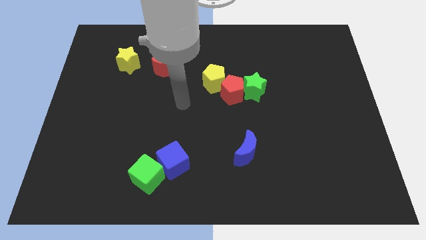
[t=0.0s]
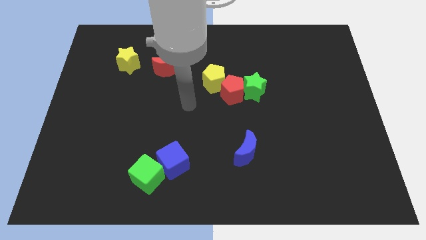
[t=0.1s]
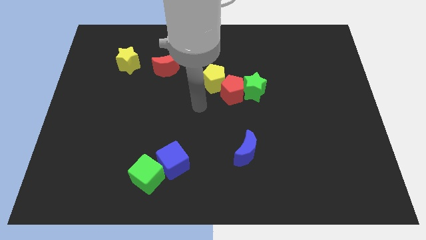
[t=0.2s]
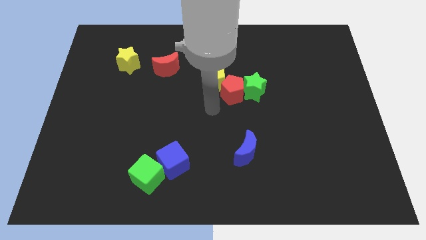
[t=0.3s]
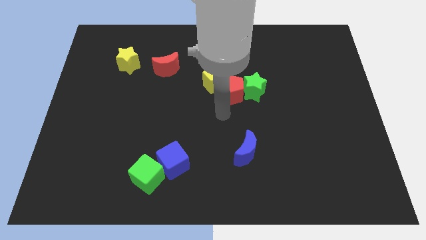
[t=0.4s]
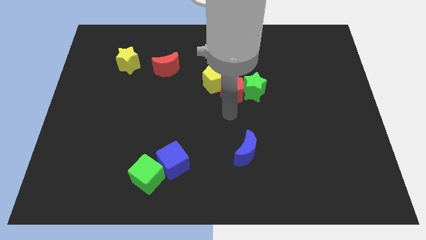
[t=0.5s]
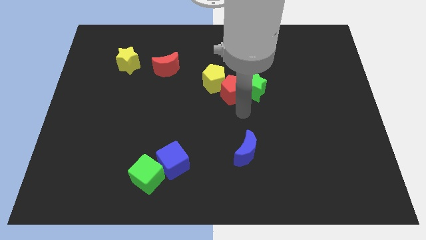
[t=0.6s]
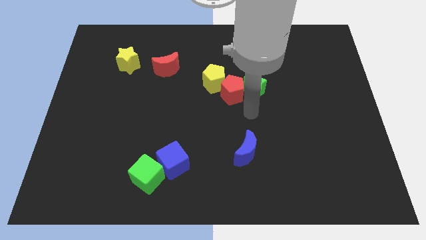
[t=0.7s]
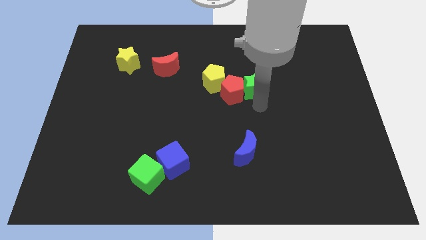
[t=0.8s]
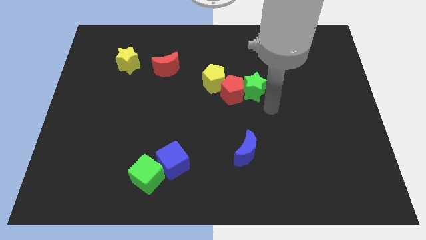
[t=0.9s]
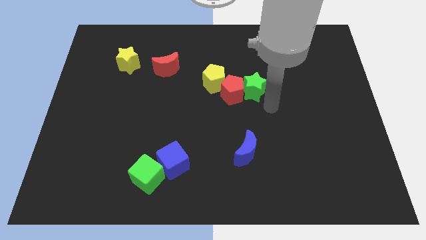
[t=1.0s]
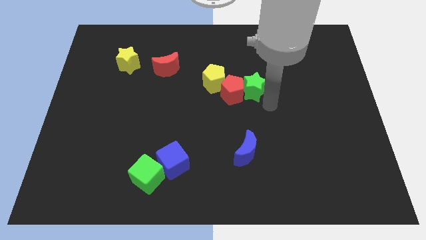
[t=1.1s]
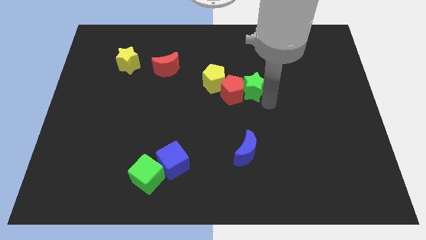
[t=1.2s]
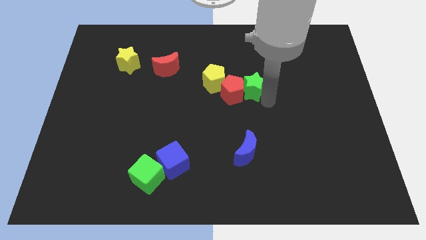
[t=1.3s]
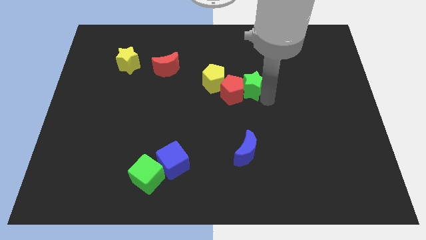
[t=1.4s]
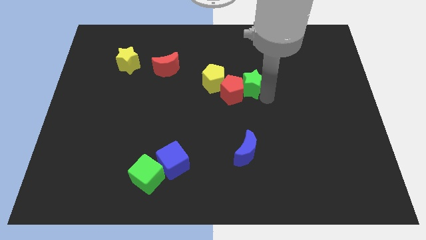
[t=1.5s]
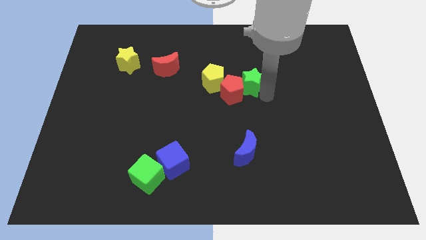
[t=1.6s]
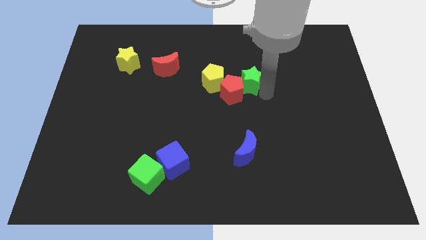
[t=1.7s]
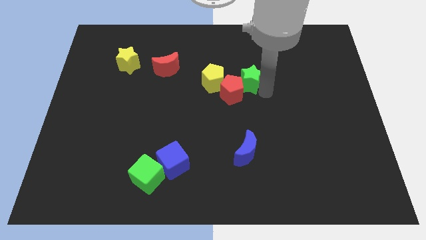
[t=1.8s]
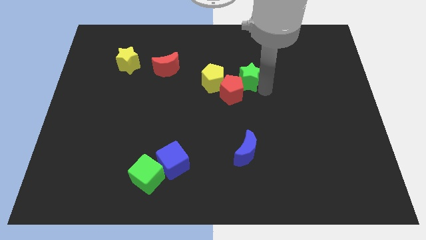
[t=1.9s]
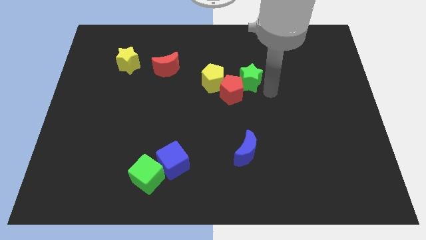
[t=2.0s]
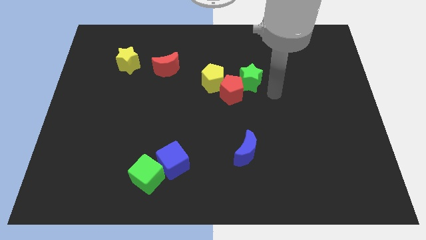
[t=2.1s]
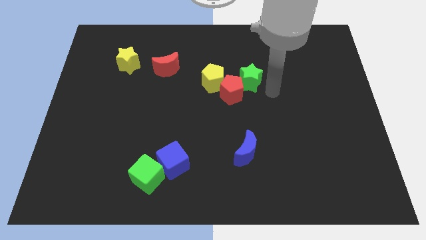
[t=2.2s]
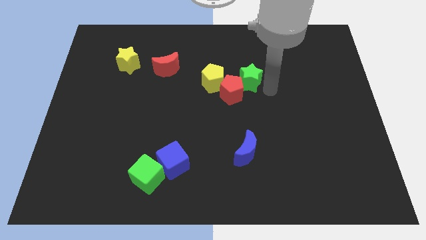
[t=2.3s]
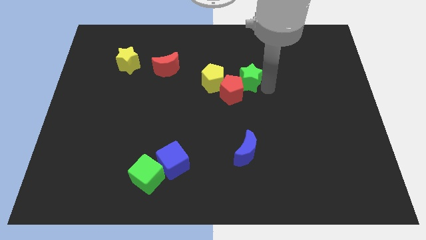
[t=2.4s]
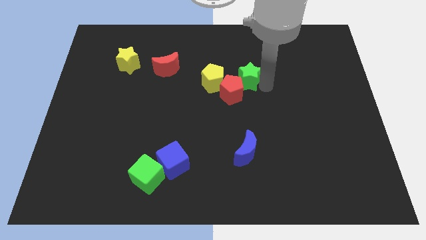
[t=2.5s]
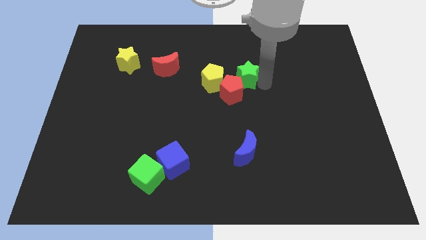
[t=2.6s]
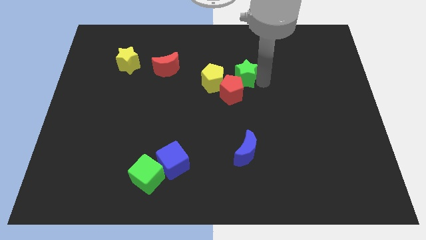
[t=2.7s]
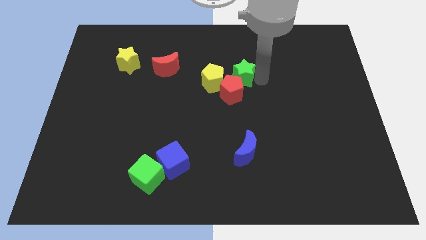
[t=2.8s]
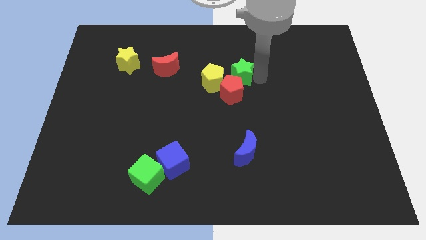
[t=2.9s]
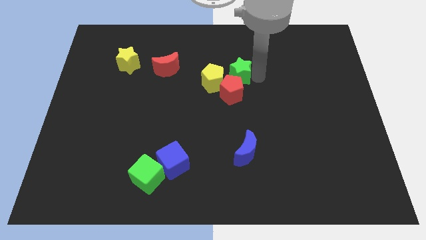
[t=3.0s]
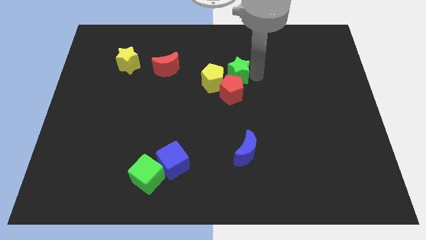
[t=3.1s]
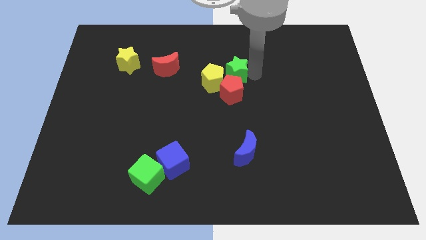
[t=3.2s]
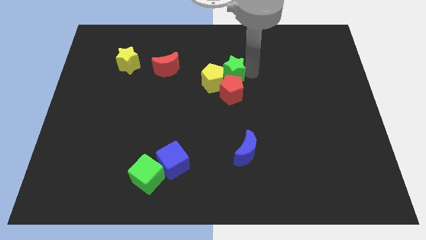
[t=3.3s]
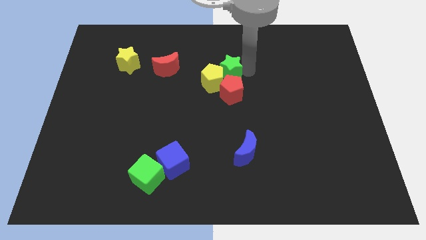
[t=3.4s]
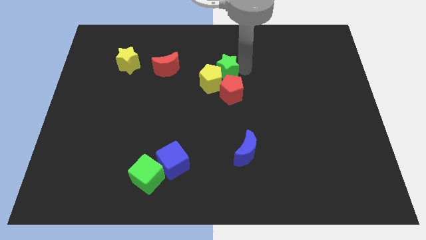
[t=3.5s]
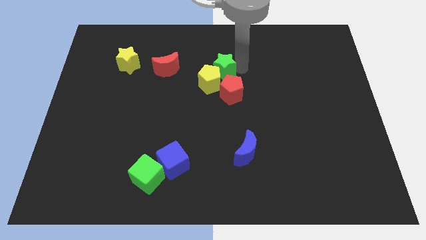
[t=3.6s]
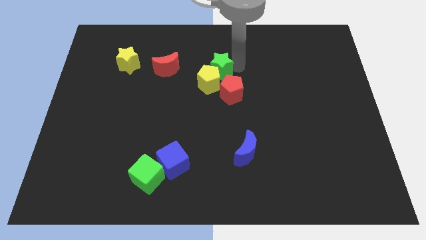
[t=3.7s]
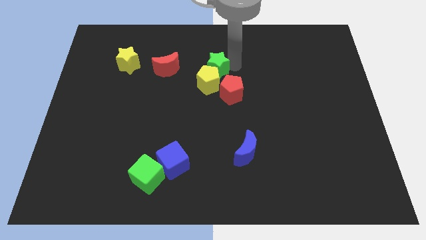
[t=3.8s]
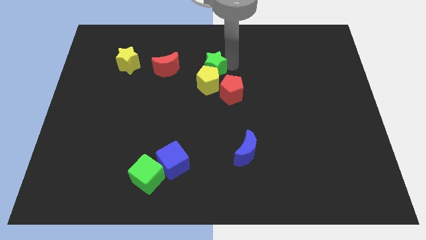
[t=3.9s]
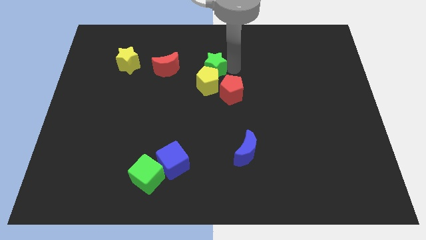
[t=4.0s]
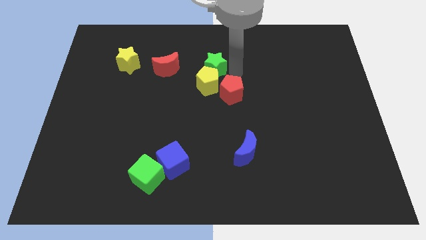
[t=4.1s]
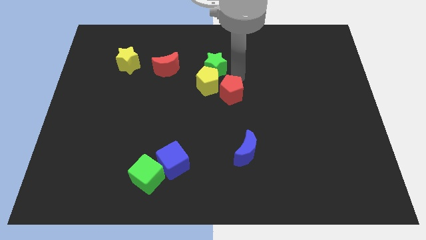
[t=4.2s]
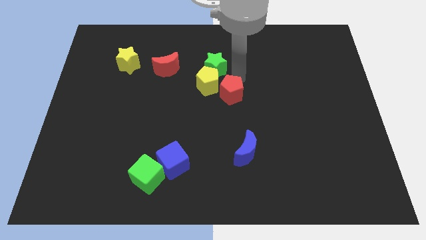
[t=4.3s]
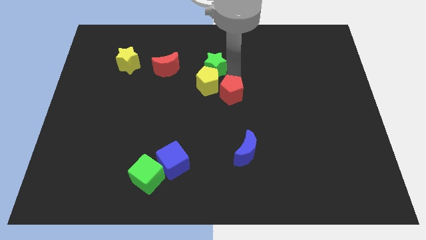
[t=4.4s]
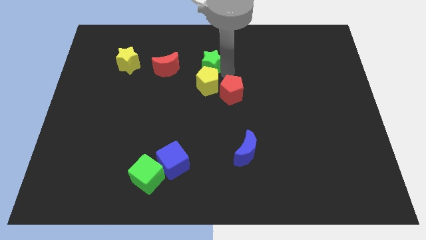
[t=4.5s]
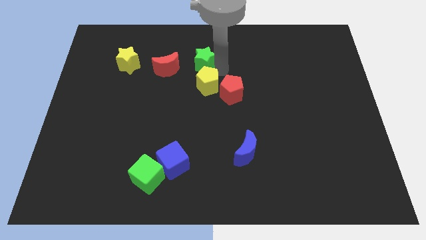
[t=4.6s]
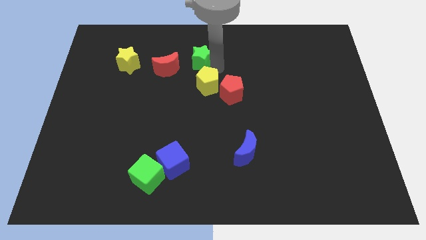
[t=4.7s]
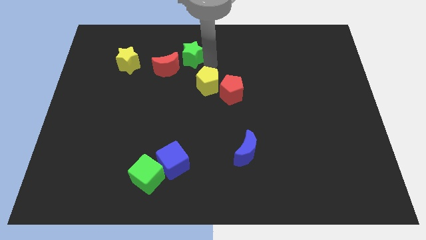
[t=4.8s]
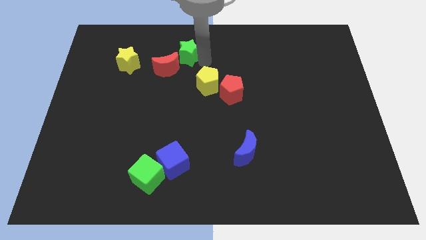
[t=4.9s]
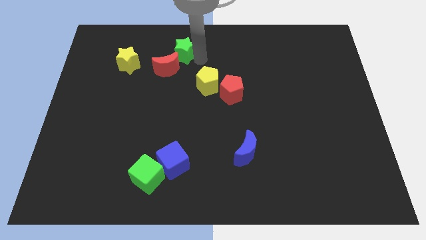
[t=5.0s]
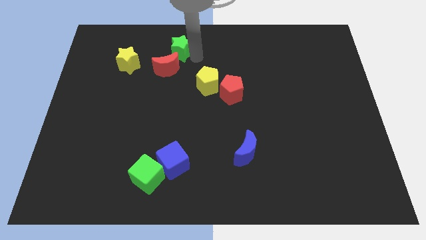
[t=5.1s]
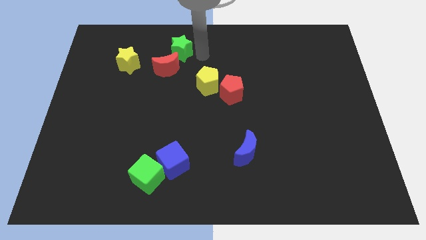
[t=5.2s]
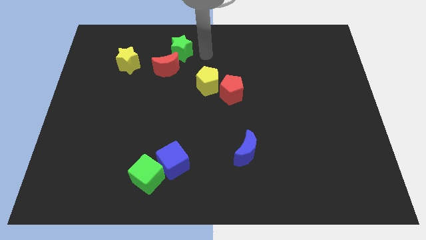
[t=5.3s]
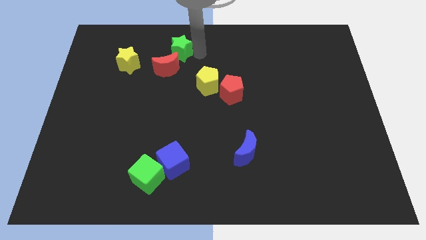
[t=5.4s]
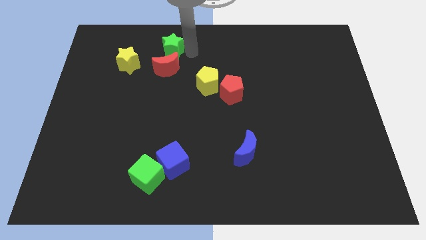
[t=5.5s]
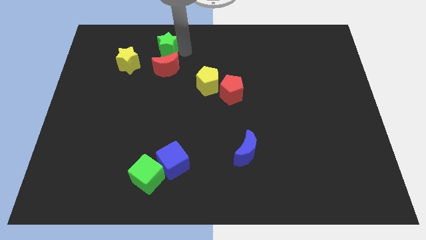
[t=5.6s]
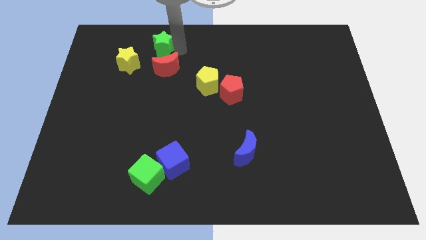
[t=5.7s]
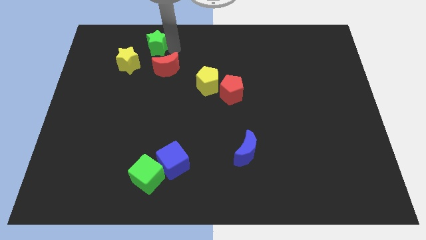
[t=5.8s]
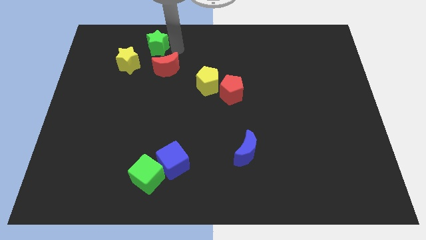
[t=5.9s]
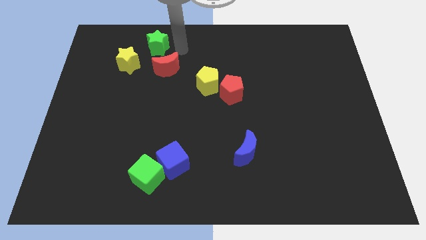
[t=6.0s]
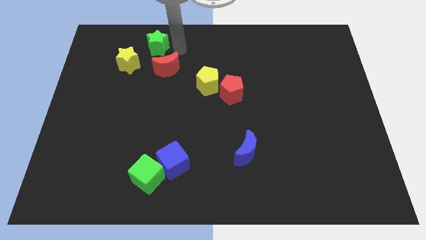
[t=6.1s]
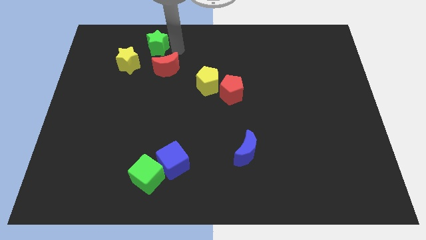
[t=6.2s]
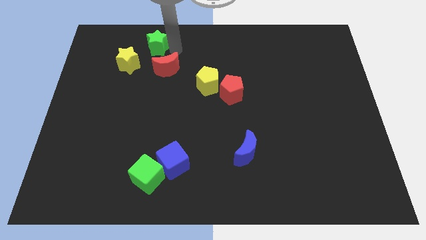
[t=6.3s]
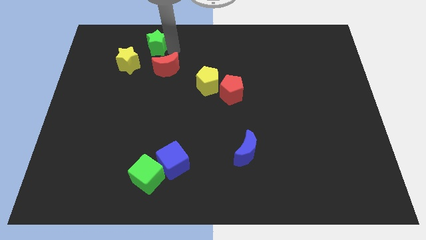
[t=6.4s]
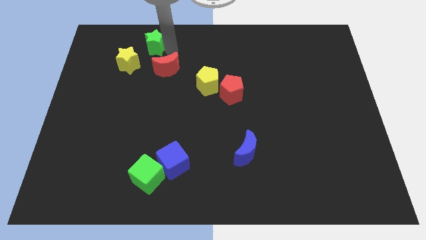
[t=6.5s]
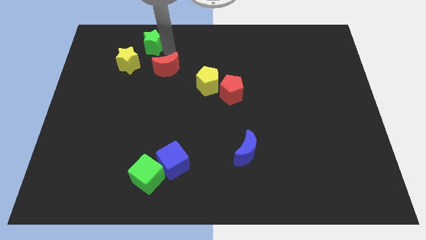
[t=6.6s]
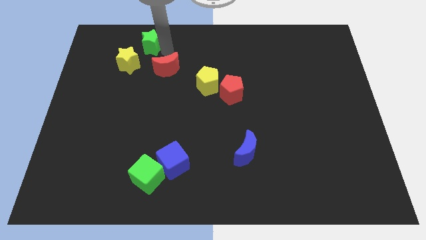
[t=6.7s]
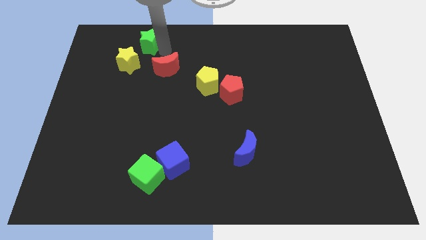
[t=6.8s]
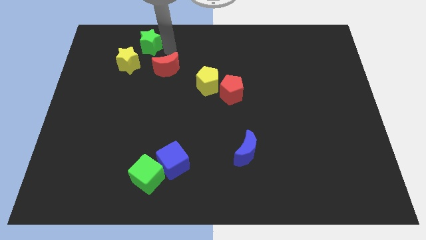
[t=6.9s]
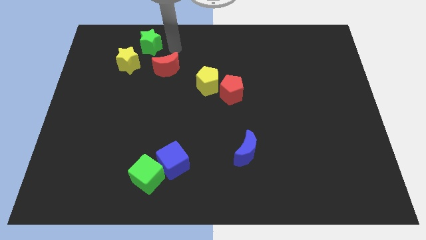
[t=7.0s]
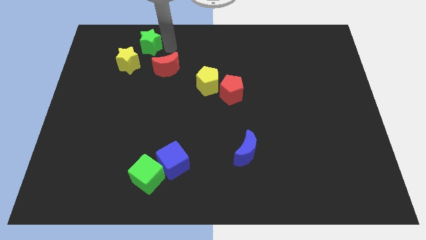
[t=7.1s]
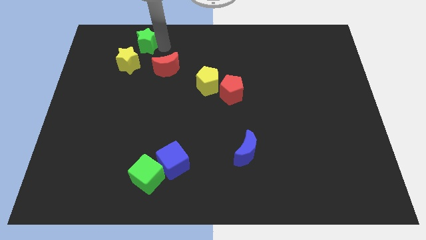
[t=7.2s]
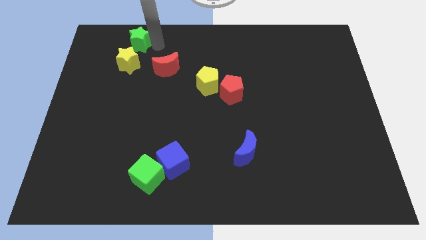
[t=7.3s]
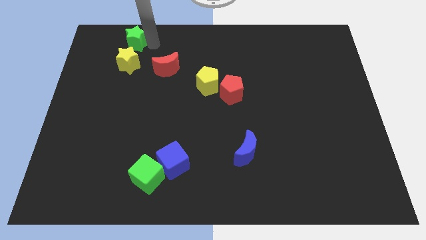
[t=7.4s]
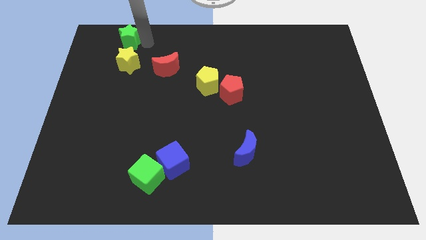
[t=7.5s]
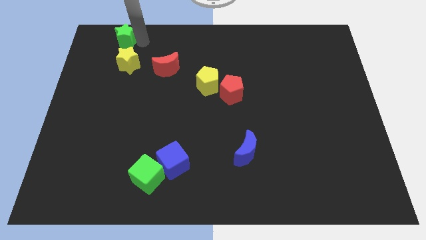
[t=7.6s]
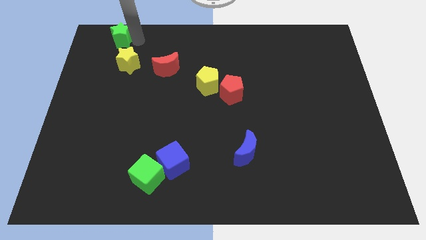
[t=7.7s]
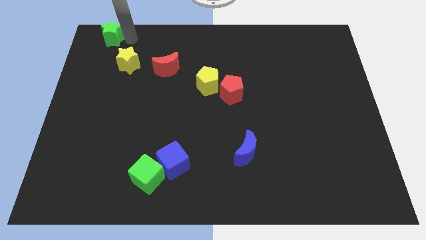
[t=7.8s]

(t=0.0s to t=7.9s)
move the green star to the top left of the board
